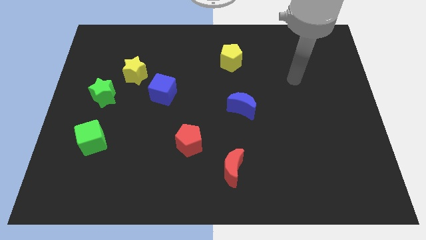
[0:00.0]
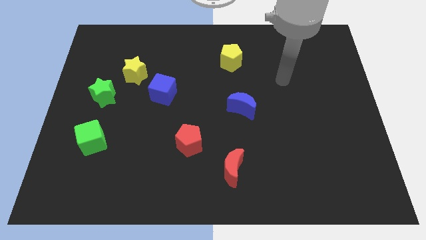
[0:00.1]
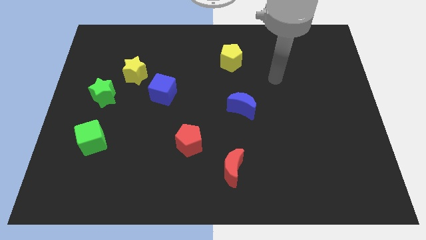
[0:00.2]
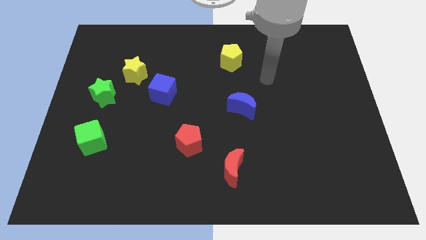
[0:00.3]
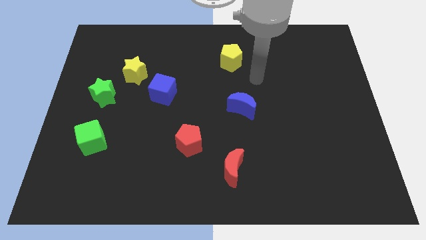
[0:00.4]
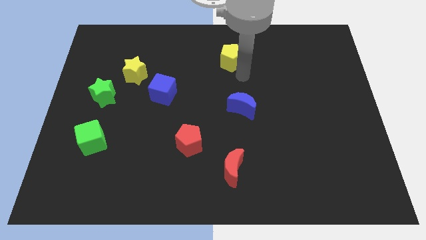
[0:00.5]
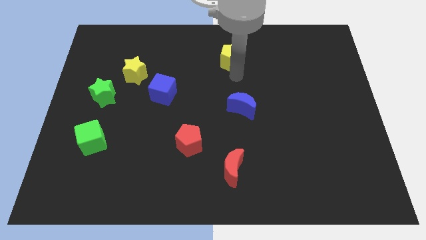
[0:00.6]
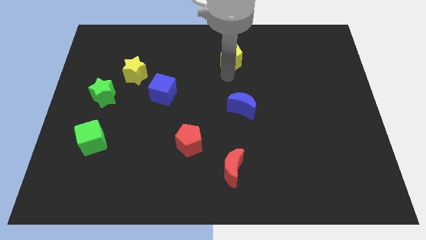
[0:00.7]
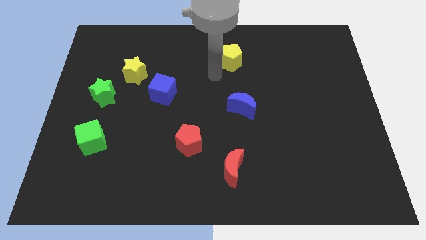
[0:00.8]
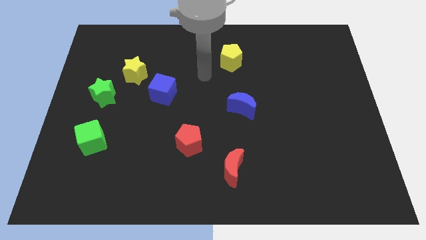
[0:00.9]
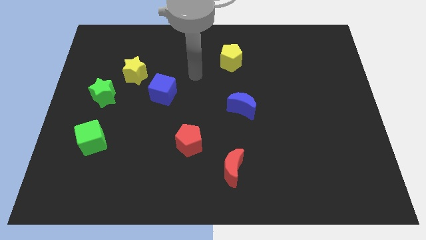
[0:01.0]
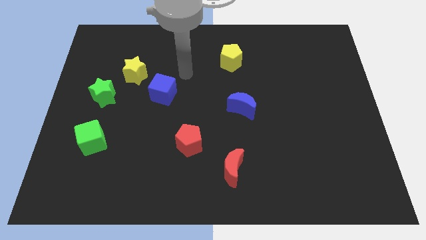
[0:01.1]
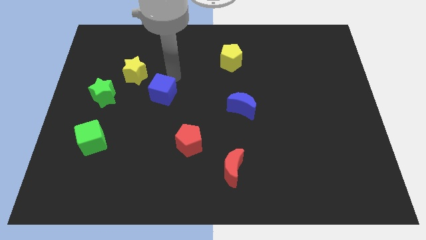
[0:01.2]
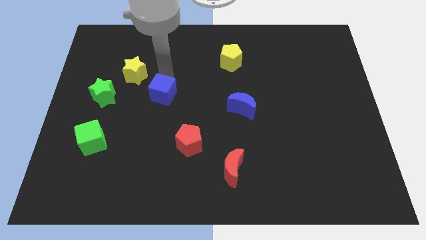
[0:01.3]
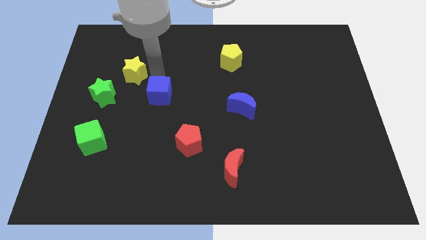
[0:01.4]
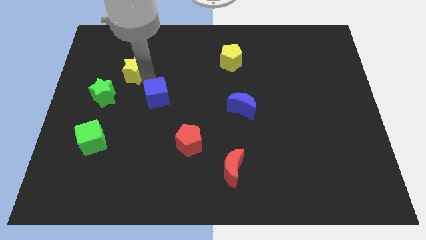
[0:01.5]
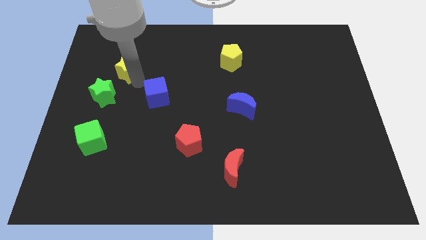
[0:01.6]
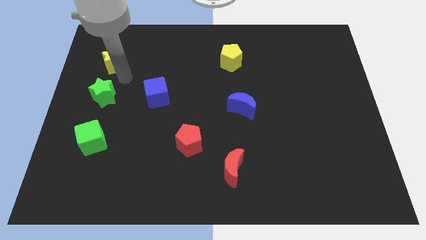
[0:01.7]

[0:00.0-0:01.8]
pull the green star apart from the yellow star

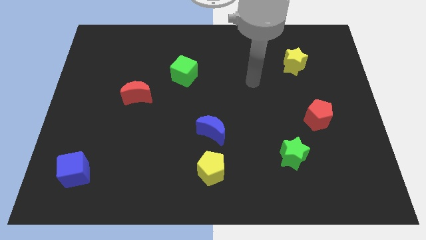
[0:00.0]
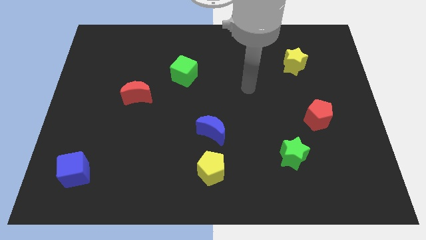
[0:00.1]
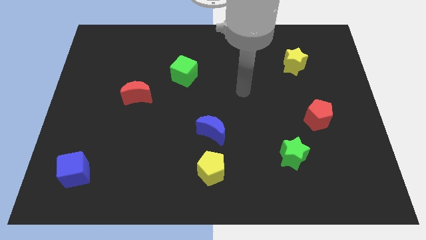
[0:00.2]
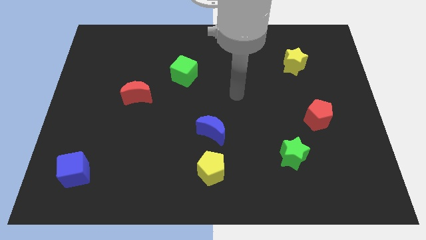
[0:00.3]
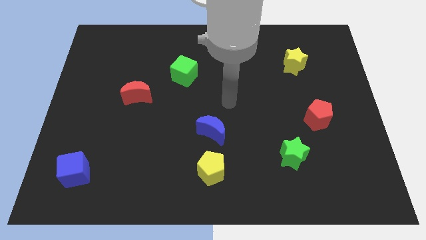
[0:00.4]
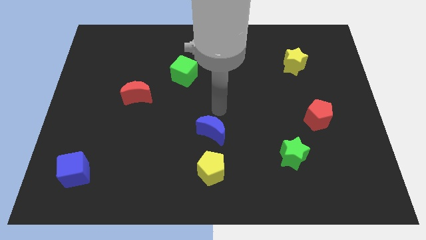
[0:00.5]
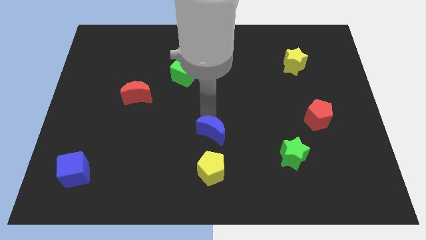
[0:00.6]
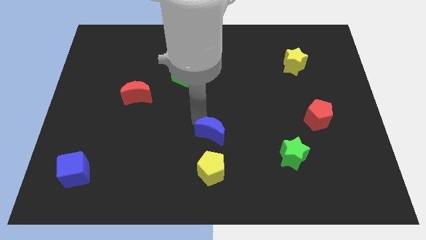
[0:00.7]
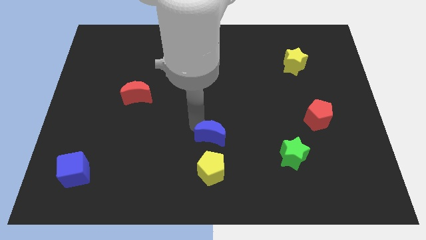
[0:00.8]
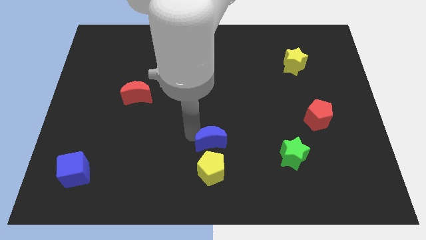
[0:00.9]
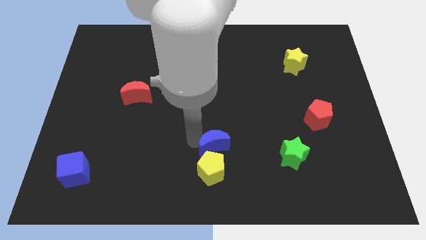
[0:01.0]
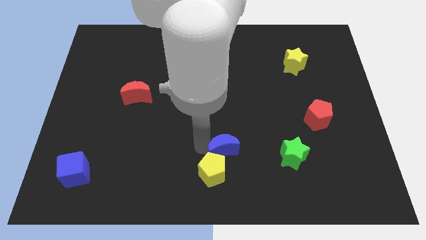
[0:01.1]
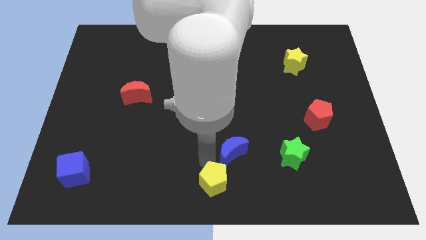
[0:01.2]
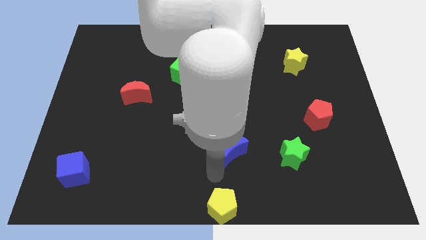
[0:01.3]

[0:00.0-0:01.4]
pull the blue moon apart from the yellow pentagon

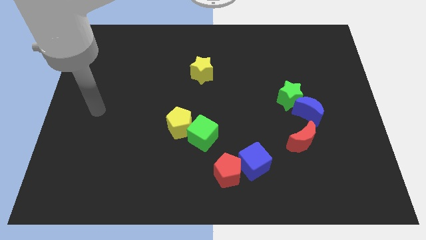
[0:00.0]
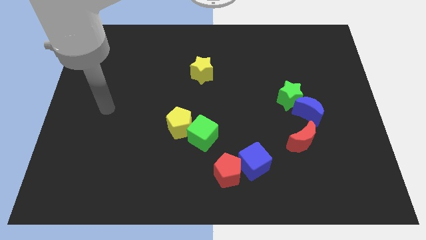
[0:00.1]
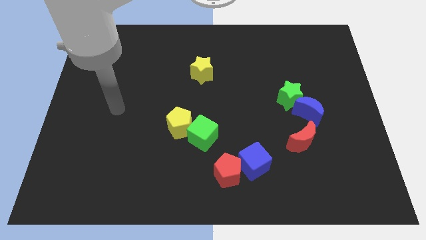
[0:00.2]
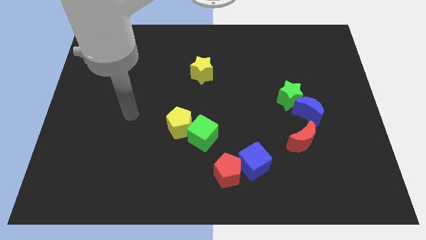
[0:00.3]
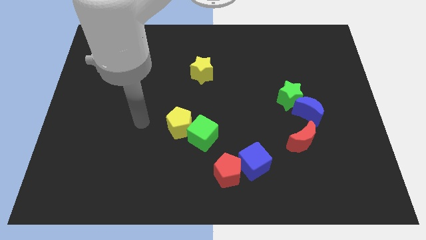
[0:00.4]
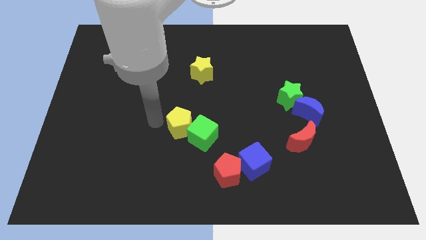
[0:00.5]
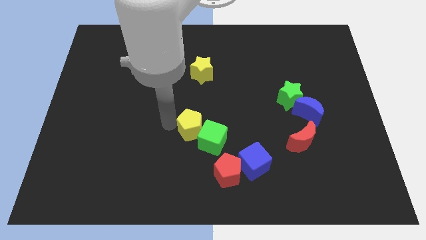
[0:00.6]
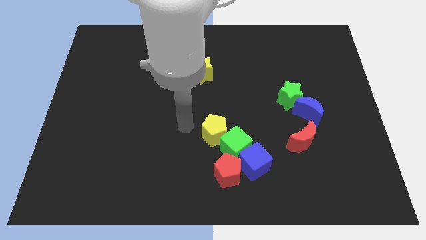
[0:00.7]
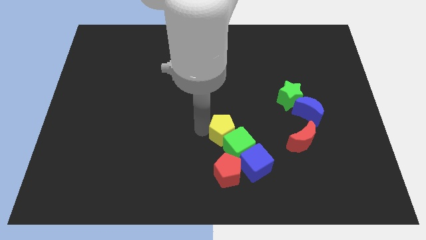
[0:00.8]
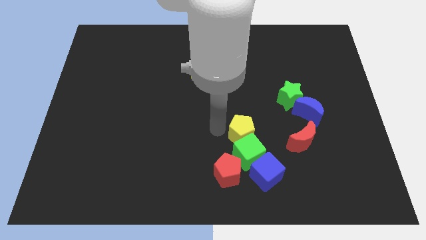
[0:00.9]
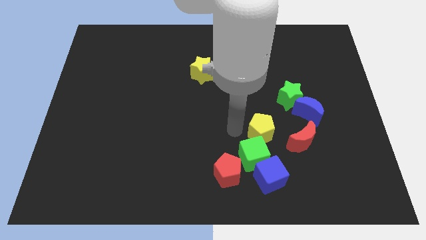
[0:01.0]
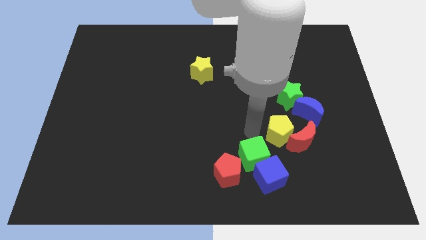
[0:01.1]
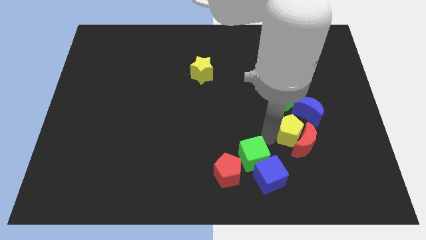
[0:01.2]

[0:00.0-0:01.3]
separate the green cube from the yellow pentagon

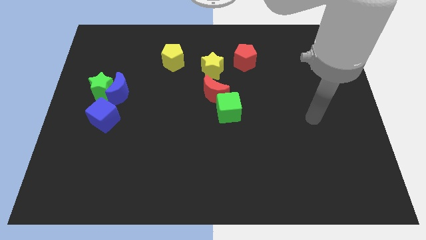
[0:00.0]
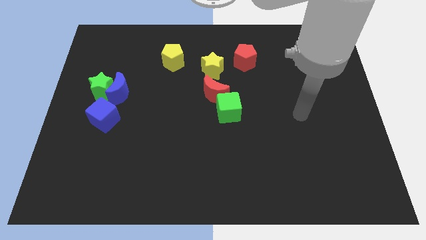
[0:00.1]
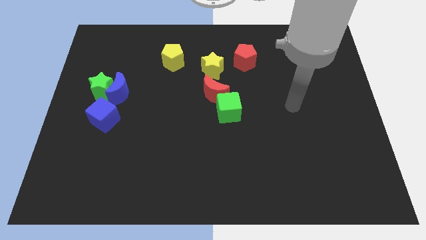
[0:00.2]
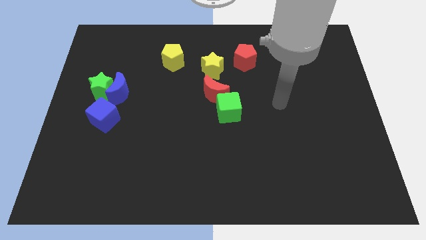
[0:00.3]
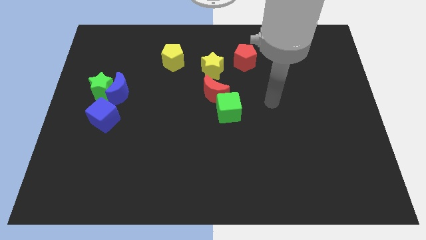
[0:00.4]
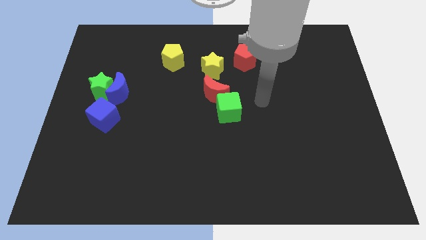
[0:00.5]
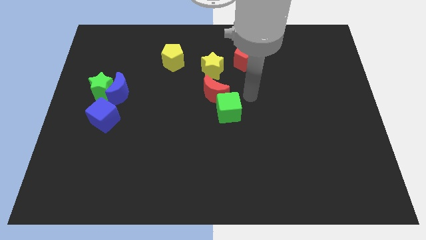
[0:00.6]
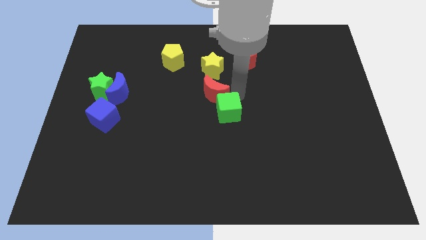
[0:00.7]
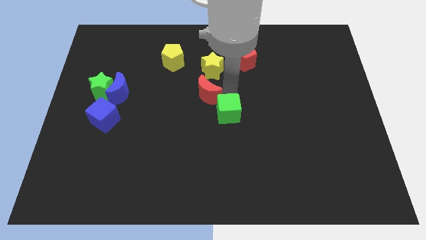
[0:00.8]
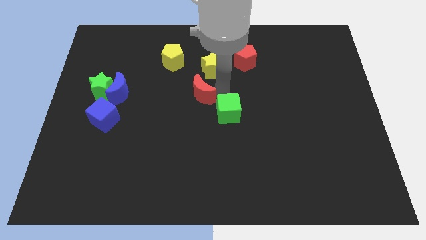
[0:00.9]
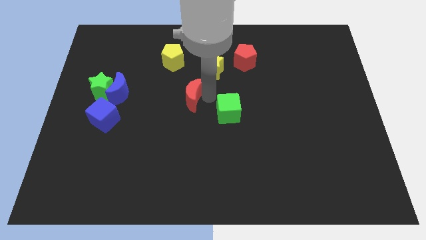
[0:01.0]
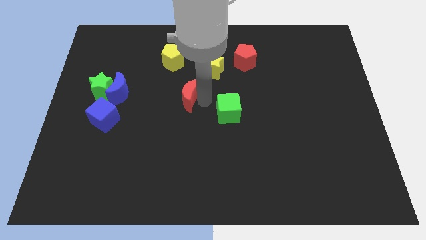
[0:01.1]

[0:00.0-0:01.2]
separate the green cube from the red moon

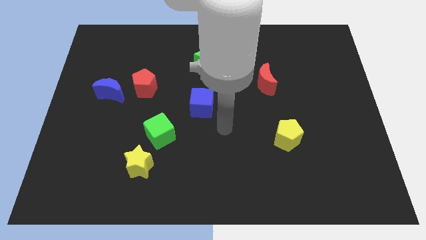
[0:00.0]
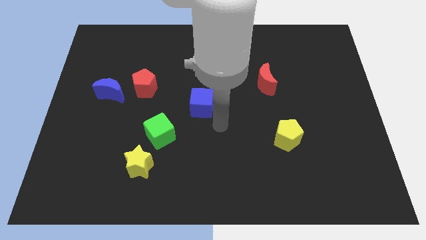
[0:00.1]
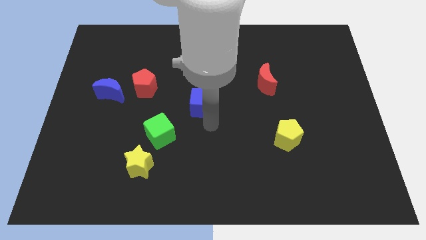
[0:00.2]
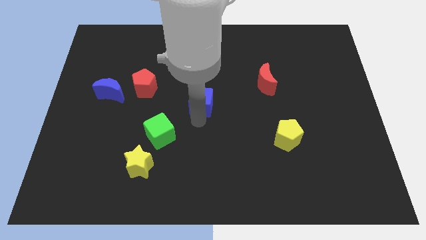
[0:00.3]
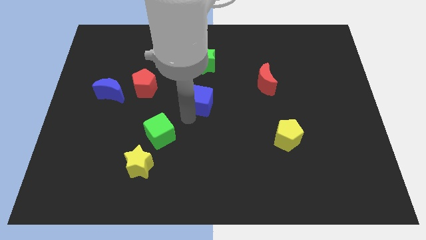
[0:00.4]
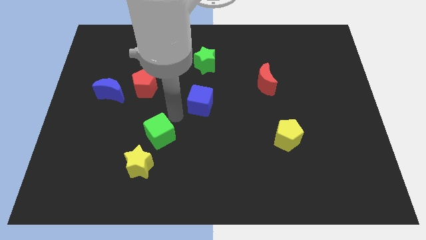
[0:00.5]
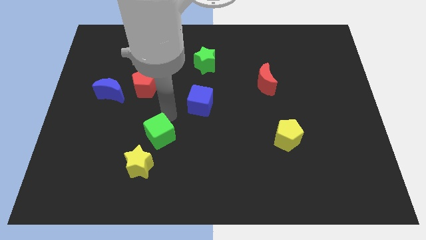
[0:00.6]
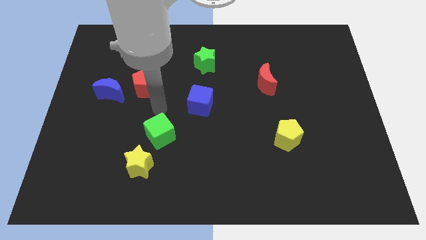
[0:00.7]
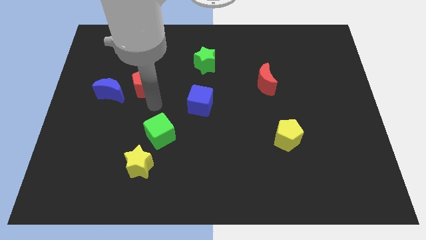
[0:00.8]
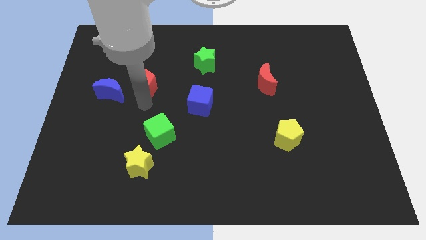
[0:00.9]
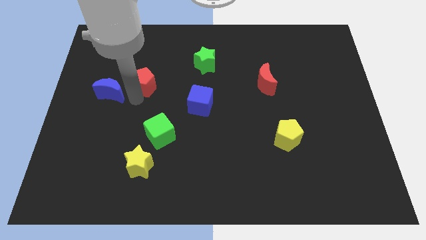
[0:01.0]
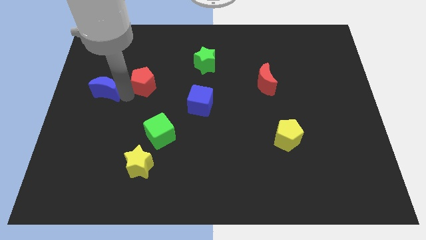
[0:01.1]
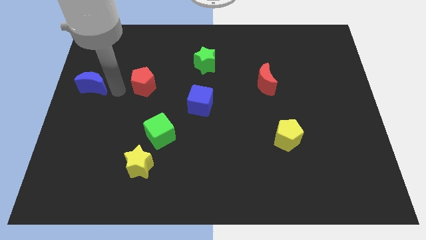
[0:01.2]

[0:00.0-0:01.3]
separate the red pentagon from the blue moon

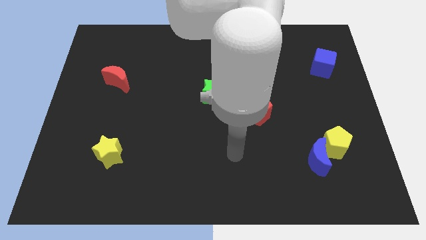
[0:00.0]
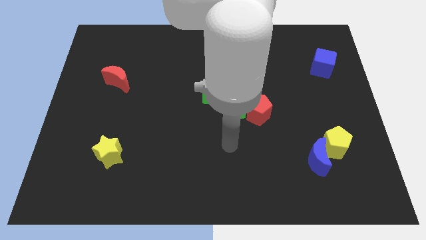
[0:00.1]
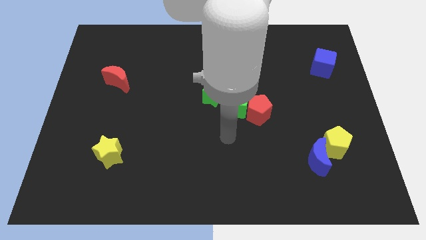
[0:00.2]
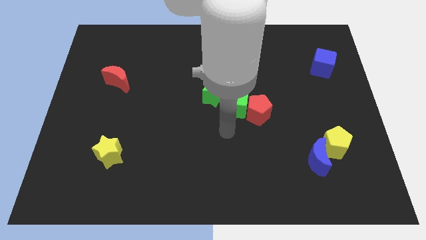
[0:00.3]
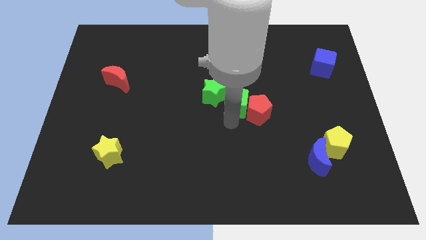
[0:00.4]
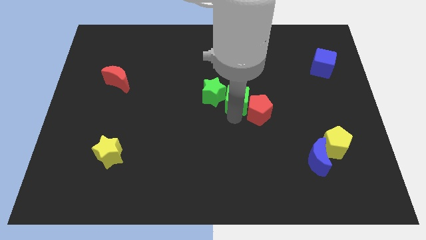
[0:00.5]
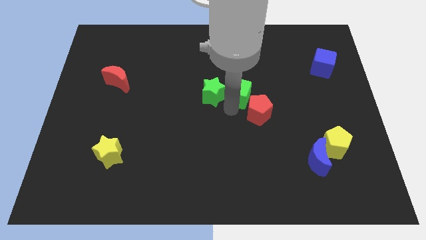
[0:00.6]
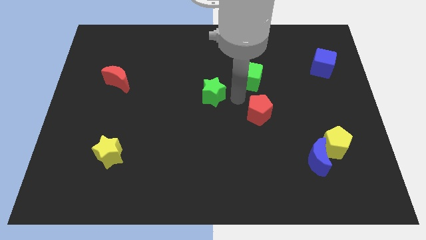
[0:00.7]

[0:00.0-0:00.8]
separate the red pentagon from the green cube

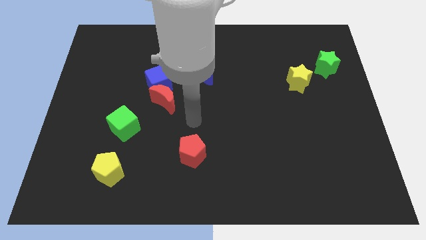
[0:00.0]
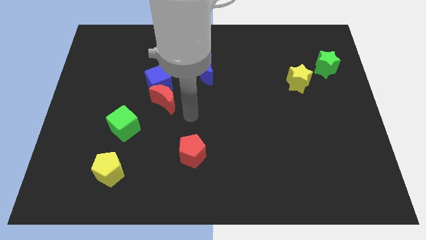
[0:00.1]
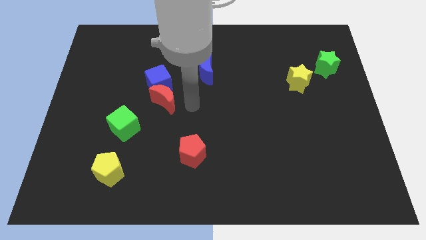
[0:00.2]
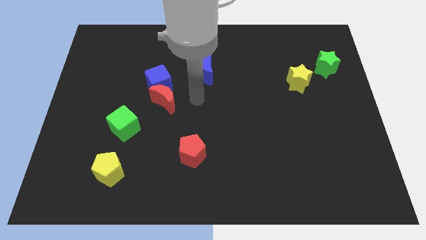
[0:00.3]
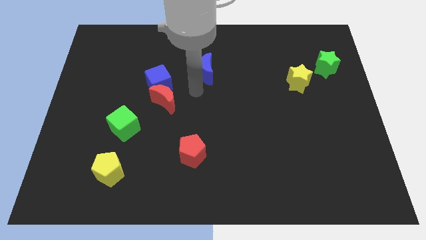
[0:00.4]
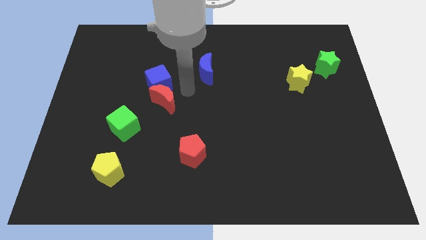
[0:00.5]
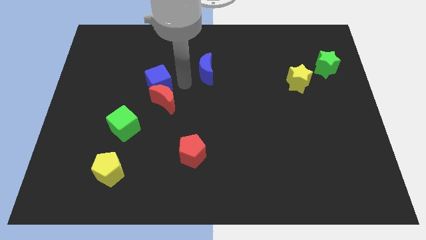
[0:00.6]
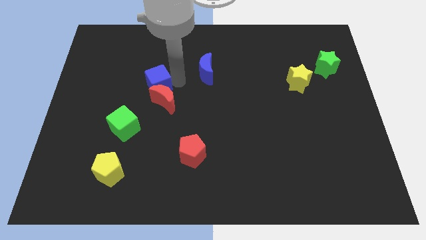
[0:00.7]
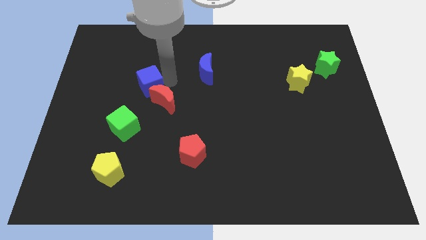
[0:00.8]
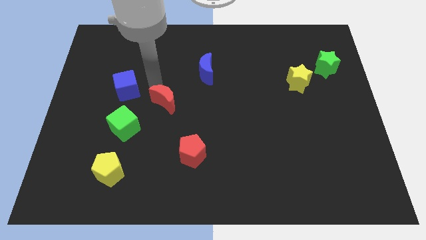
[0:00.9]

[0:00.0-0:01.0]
separate the red moon from the blue cube

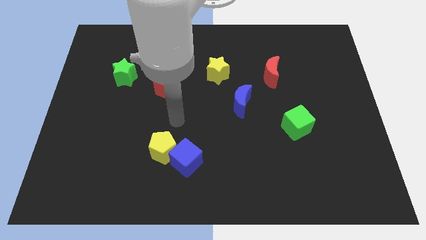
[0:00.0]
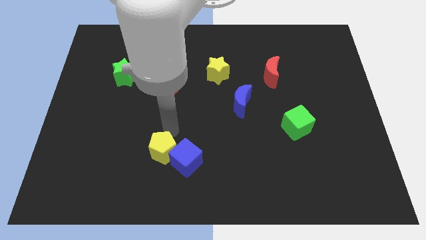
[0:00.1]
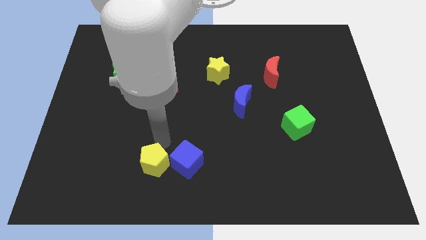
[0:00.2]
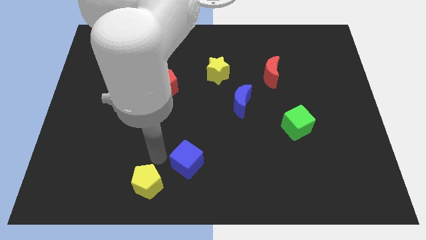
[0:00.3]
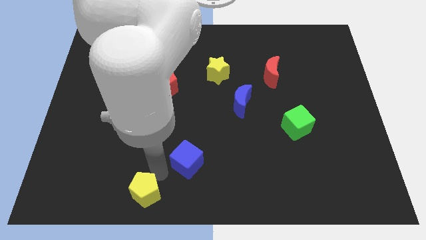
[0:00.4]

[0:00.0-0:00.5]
move the blue cube away from the yellow pentagon

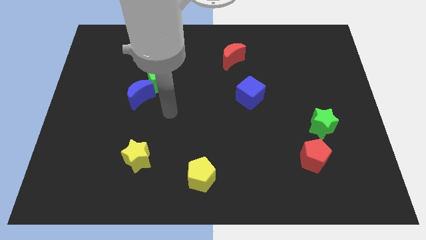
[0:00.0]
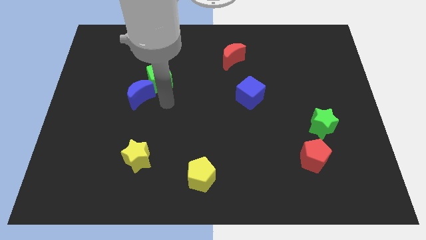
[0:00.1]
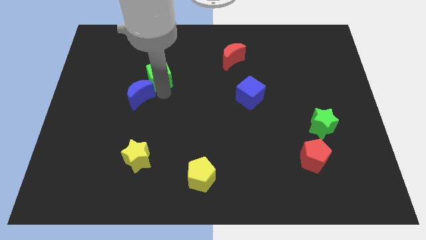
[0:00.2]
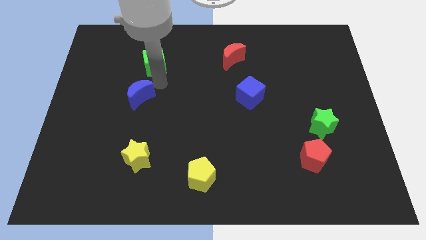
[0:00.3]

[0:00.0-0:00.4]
pull the blue moon apart from the green cube
